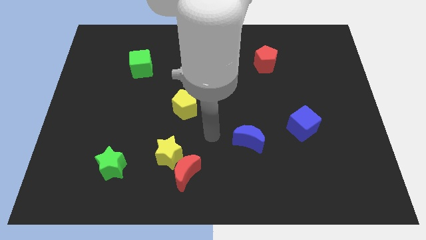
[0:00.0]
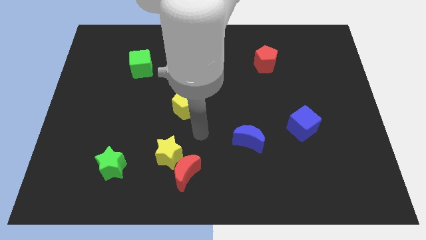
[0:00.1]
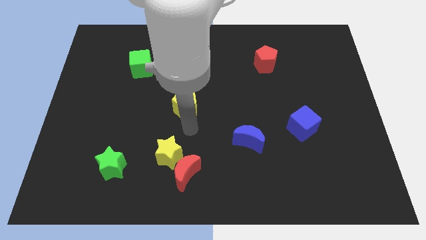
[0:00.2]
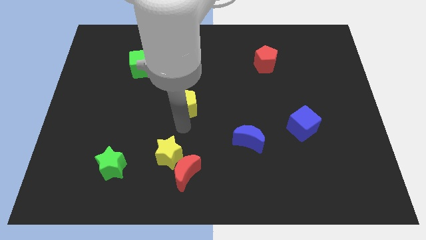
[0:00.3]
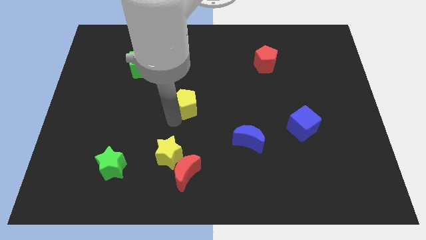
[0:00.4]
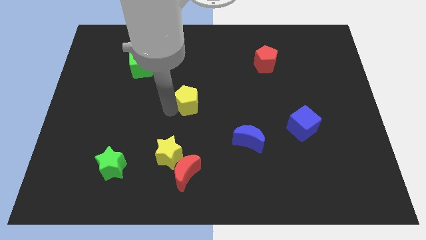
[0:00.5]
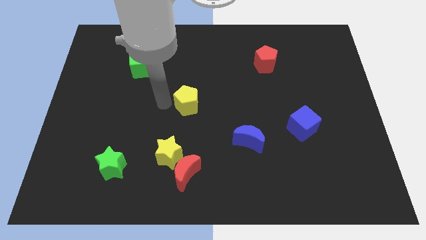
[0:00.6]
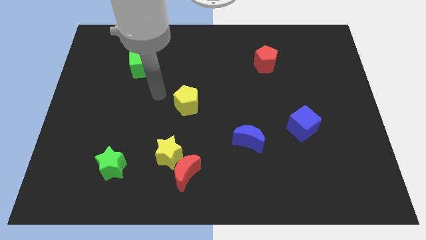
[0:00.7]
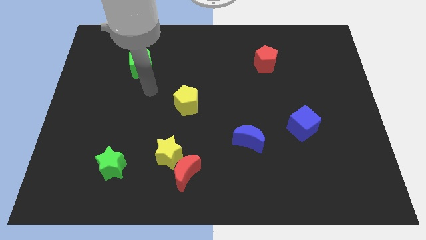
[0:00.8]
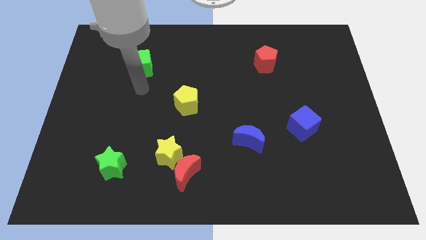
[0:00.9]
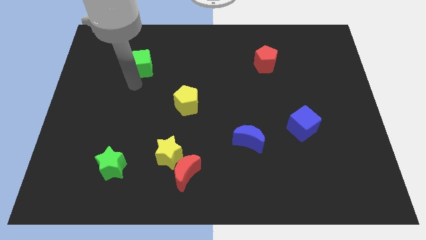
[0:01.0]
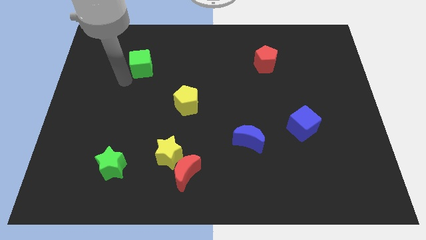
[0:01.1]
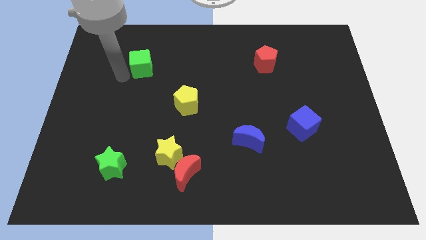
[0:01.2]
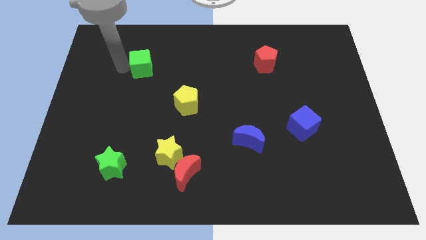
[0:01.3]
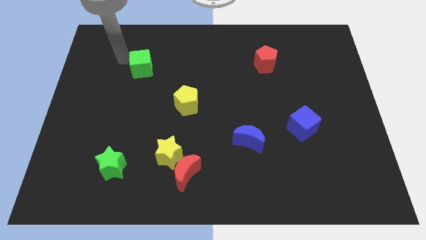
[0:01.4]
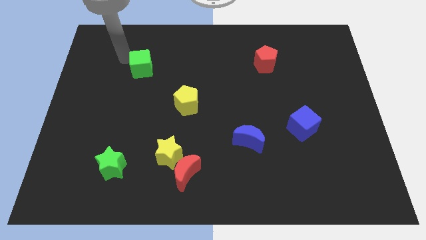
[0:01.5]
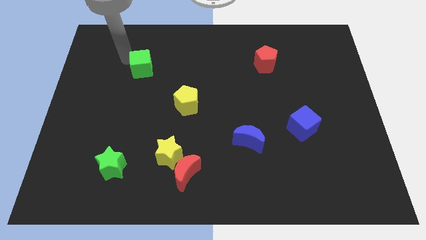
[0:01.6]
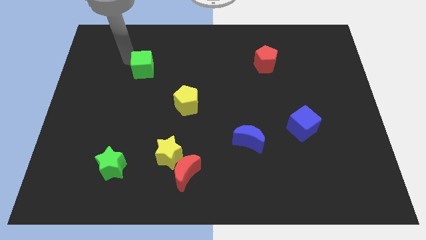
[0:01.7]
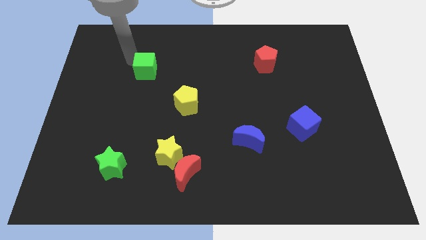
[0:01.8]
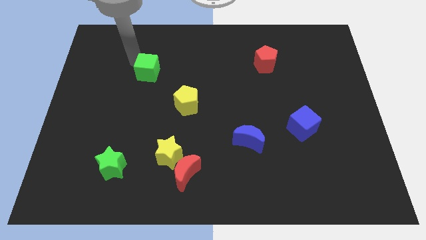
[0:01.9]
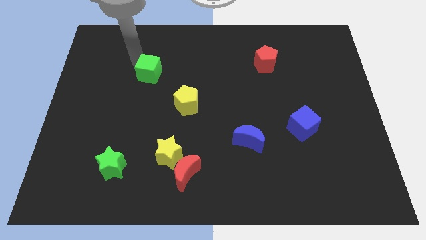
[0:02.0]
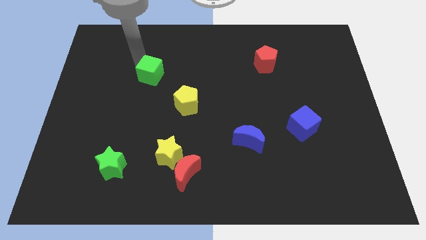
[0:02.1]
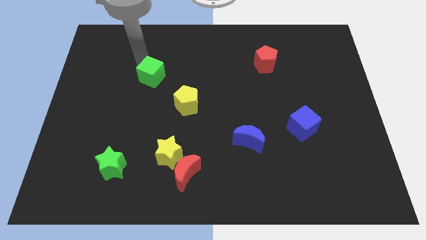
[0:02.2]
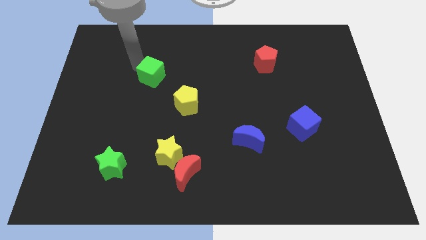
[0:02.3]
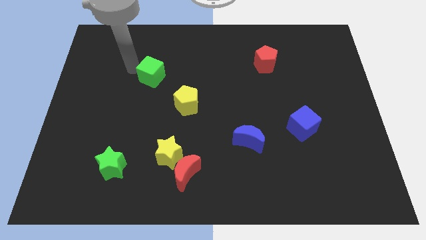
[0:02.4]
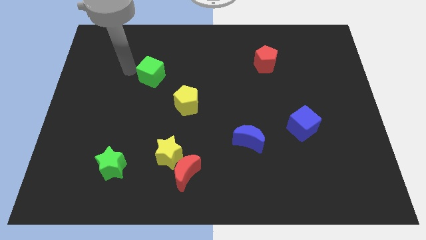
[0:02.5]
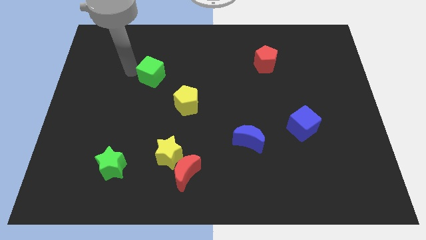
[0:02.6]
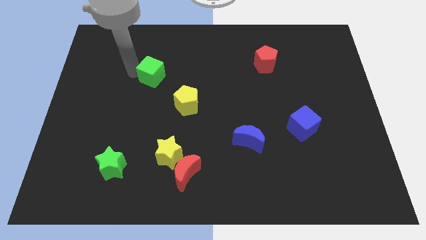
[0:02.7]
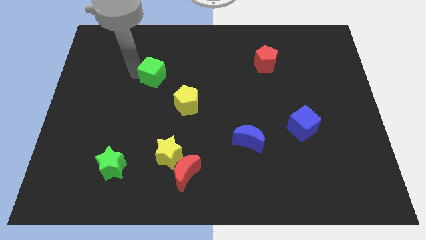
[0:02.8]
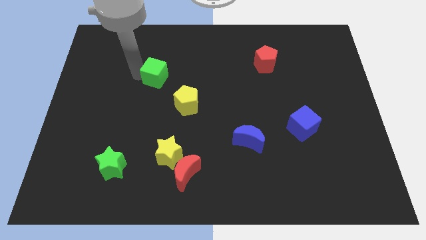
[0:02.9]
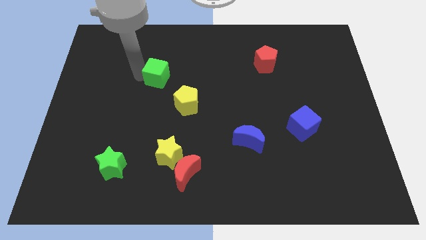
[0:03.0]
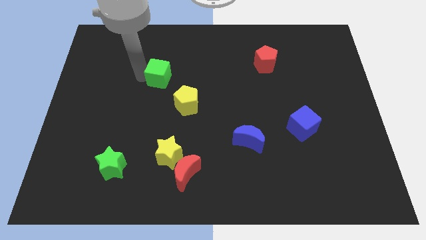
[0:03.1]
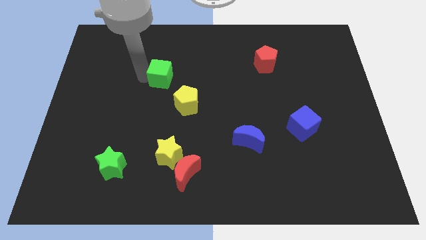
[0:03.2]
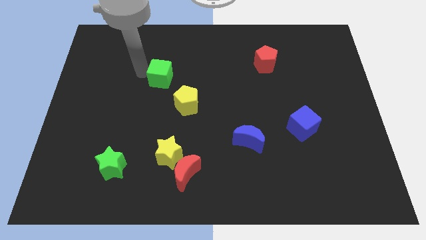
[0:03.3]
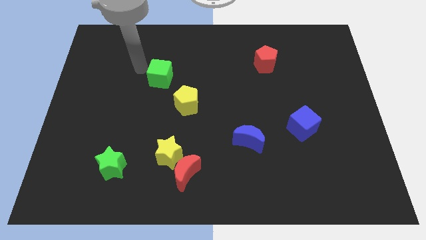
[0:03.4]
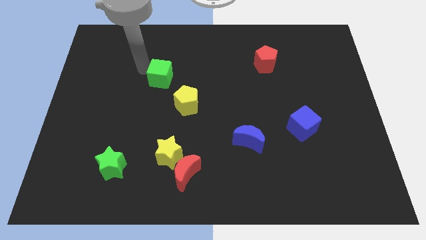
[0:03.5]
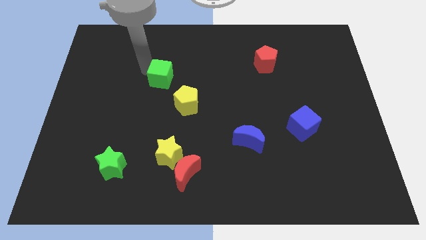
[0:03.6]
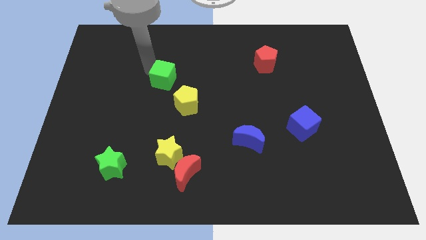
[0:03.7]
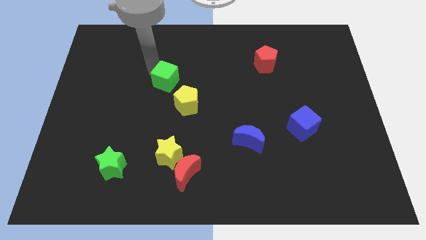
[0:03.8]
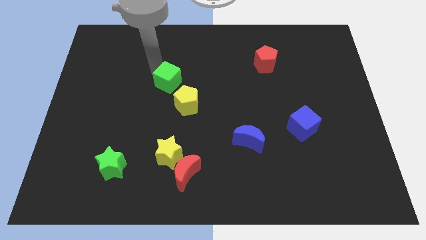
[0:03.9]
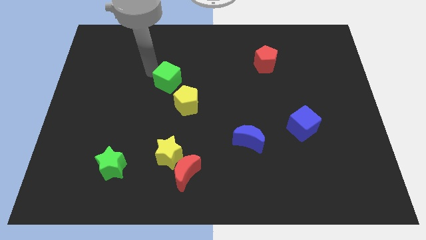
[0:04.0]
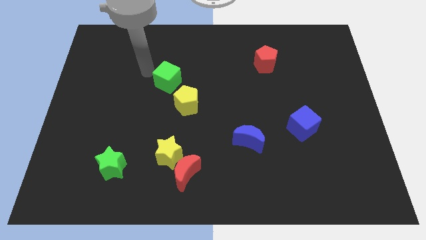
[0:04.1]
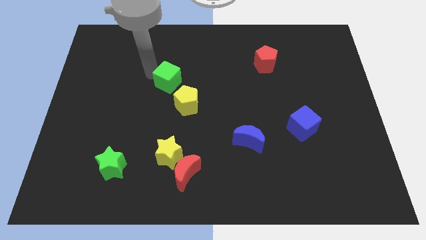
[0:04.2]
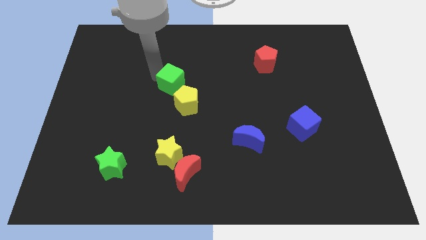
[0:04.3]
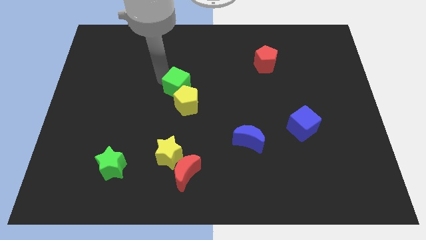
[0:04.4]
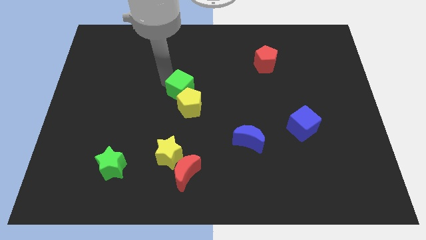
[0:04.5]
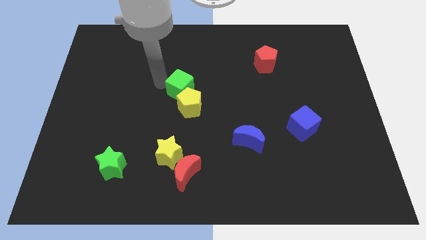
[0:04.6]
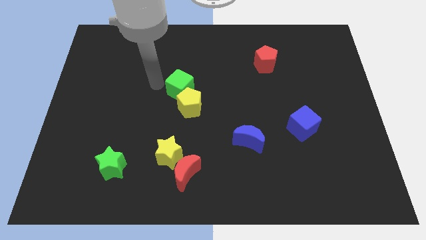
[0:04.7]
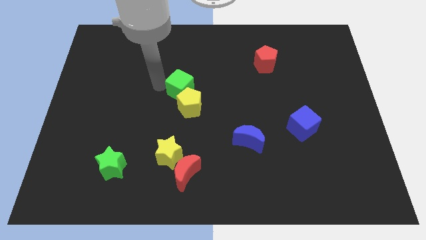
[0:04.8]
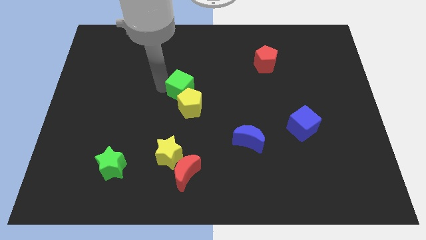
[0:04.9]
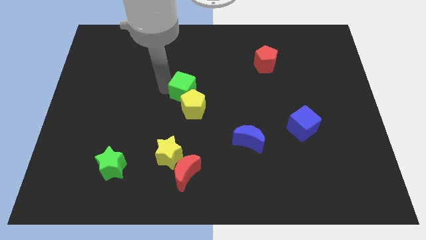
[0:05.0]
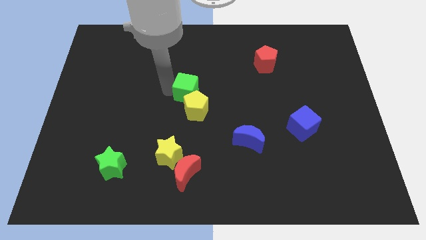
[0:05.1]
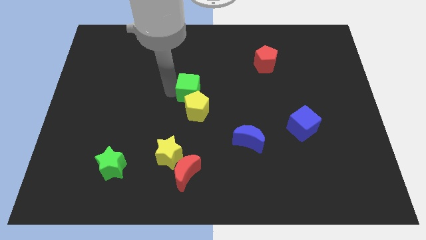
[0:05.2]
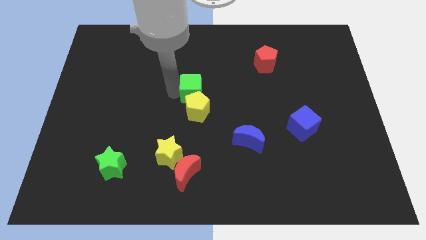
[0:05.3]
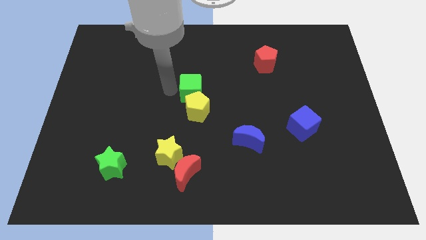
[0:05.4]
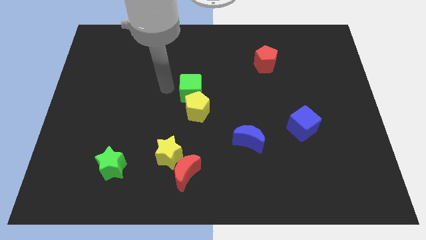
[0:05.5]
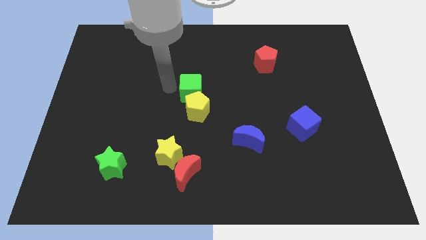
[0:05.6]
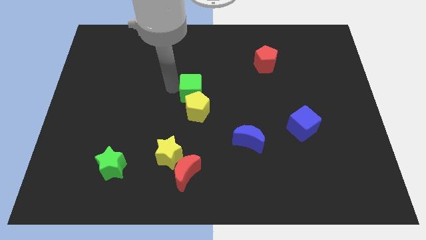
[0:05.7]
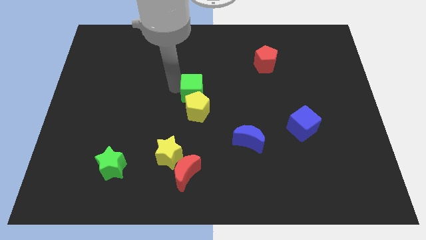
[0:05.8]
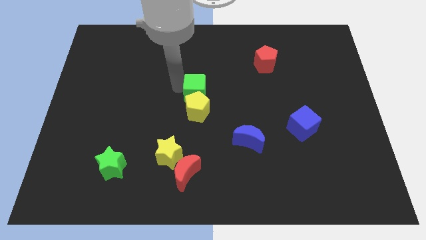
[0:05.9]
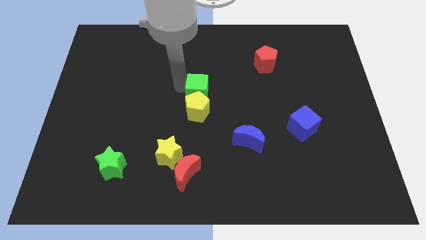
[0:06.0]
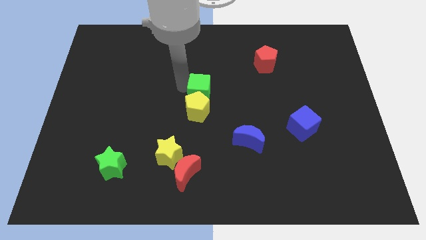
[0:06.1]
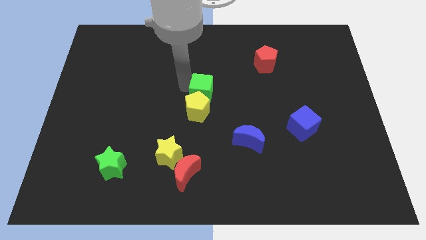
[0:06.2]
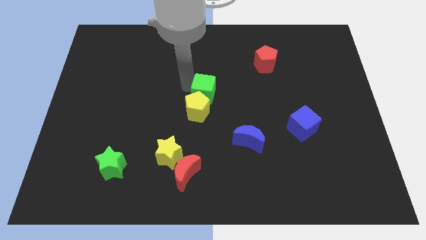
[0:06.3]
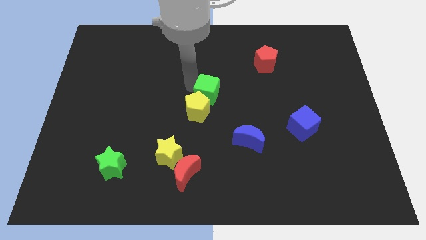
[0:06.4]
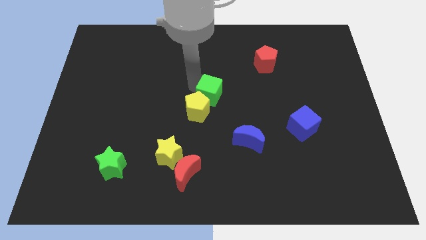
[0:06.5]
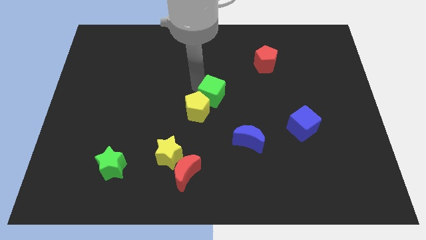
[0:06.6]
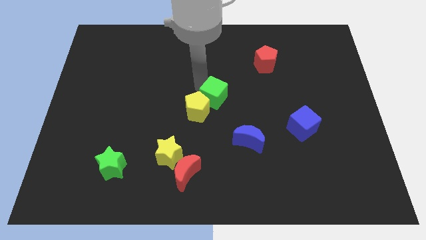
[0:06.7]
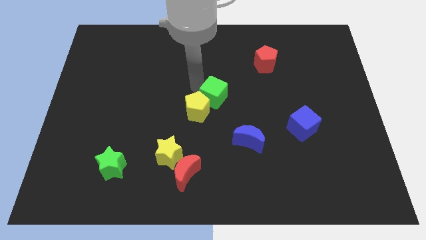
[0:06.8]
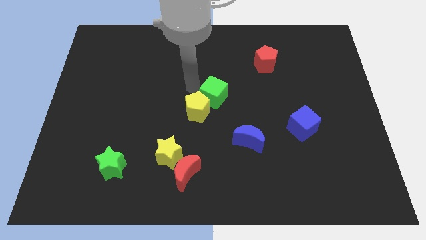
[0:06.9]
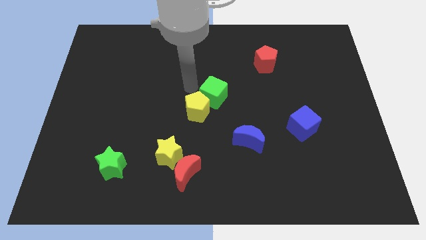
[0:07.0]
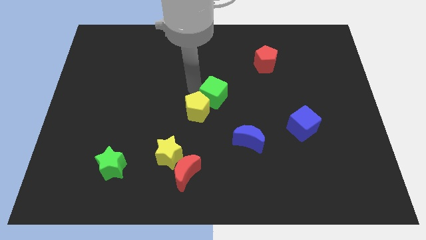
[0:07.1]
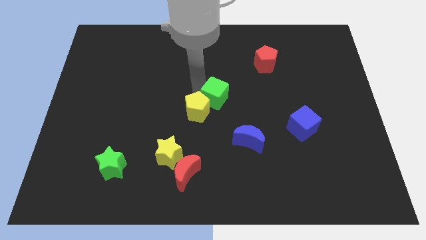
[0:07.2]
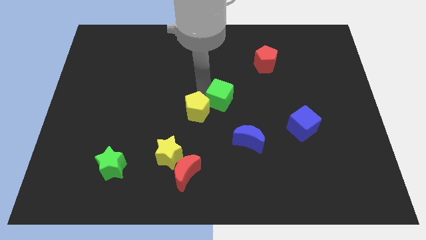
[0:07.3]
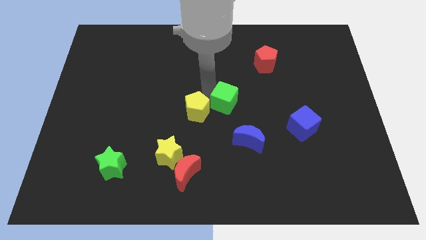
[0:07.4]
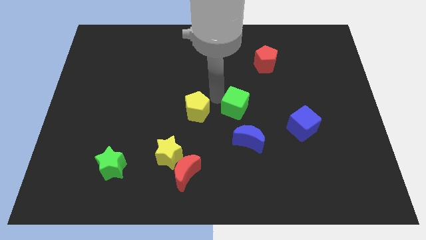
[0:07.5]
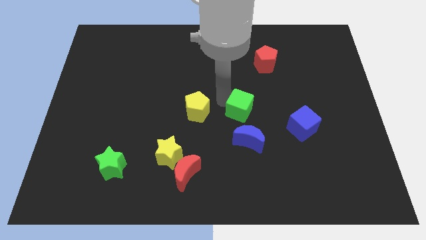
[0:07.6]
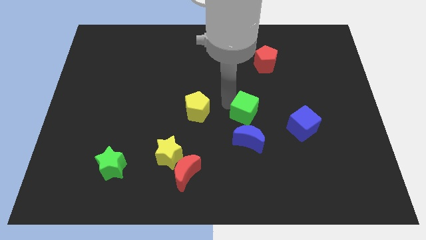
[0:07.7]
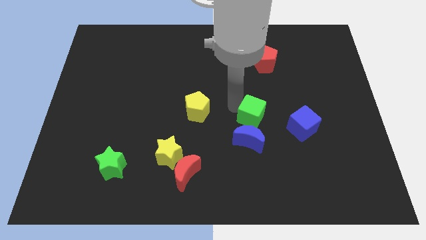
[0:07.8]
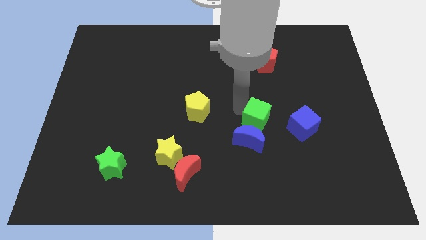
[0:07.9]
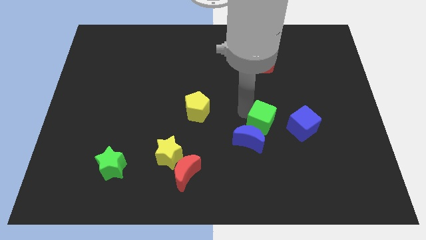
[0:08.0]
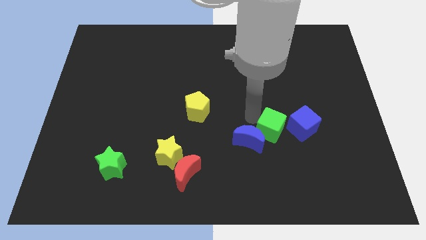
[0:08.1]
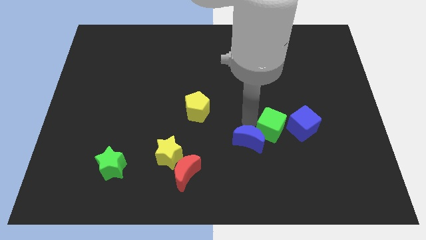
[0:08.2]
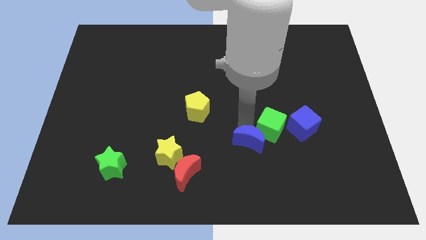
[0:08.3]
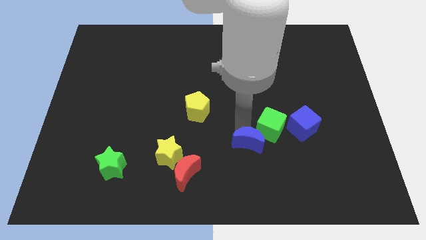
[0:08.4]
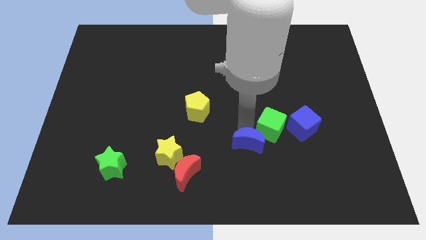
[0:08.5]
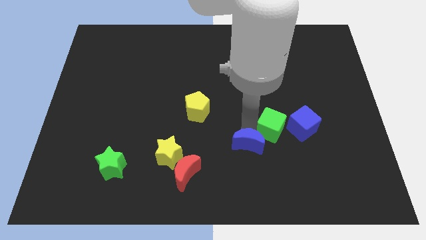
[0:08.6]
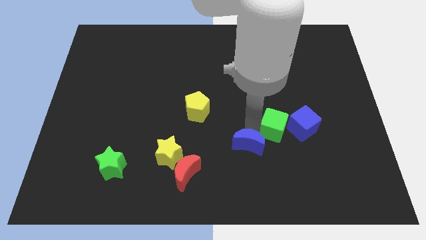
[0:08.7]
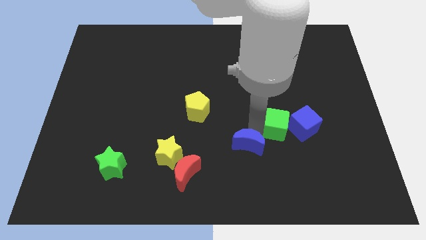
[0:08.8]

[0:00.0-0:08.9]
push the green cube next to the blue cube
